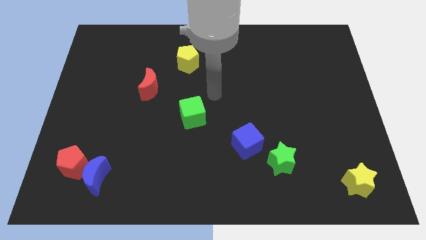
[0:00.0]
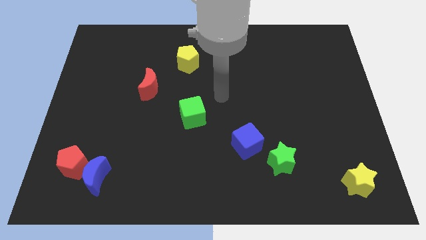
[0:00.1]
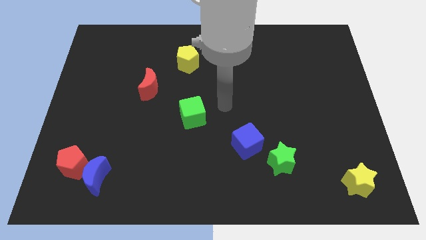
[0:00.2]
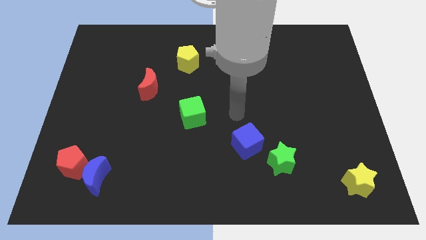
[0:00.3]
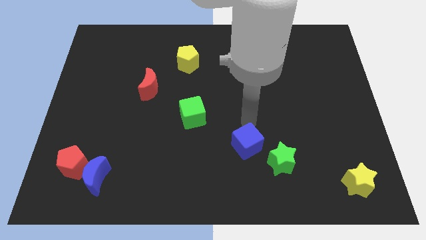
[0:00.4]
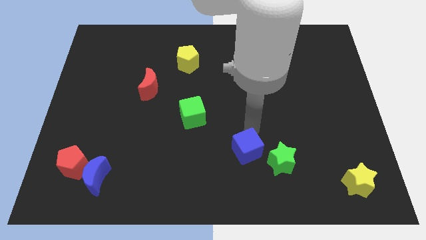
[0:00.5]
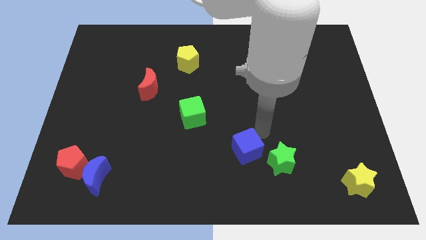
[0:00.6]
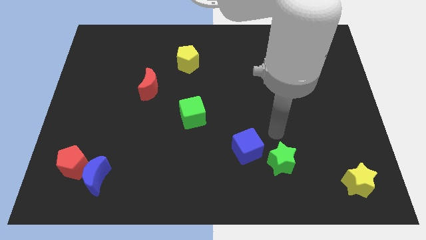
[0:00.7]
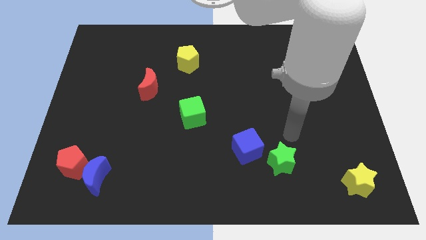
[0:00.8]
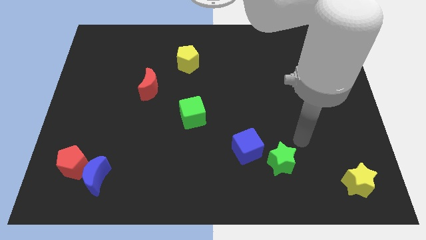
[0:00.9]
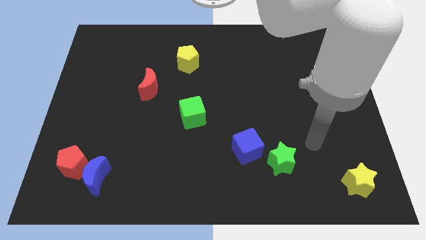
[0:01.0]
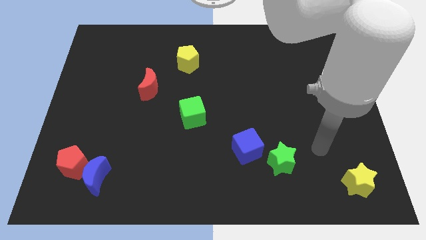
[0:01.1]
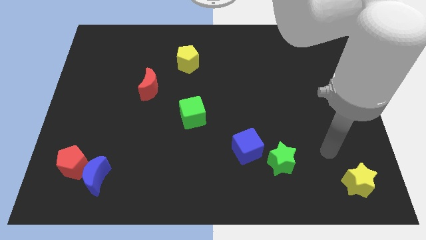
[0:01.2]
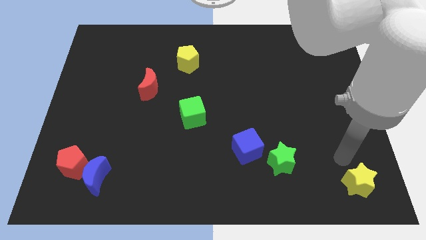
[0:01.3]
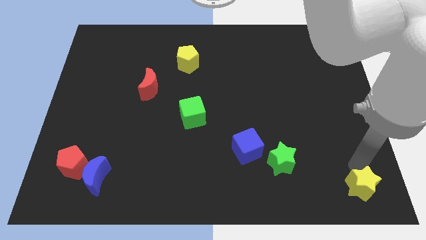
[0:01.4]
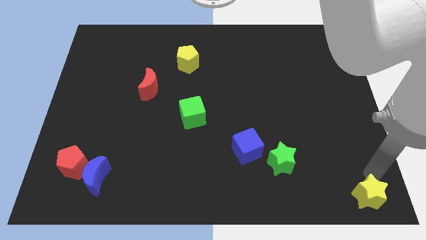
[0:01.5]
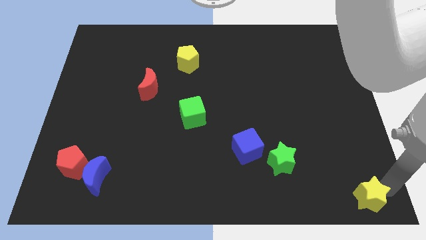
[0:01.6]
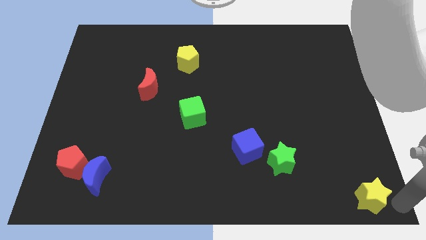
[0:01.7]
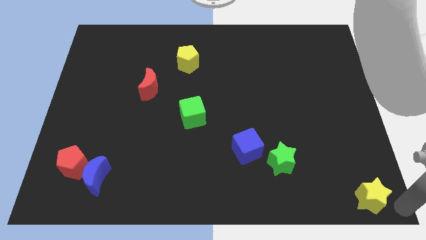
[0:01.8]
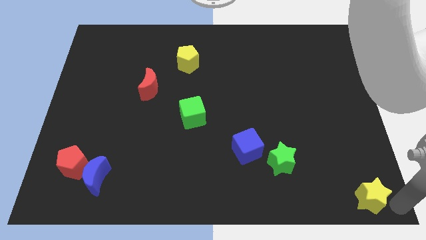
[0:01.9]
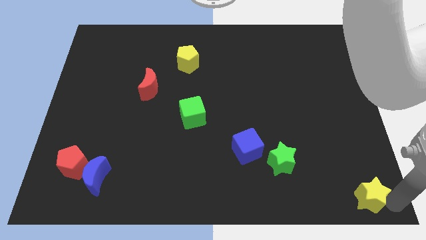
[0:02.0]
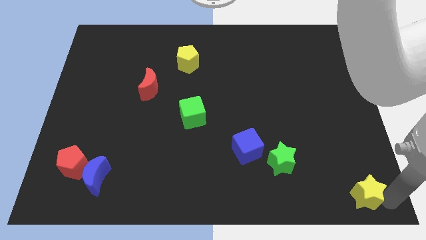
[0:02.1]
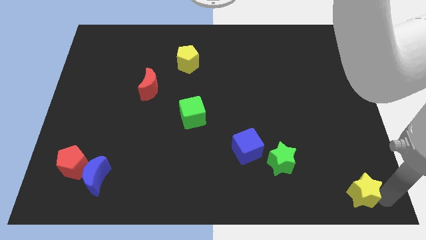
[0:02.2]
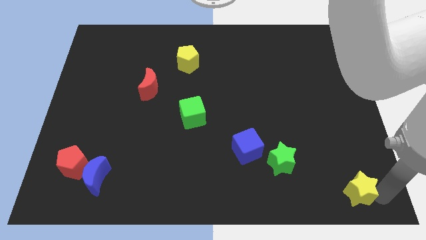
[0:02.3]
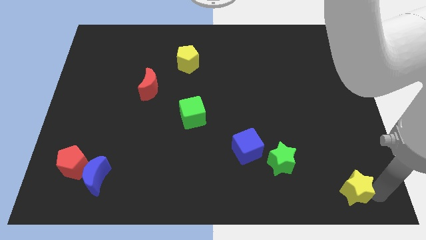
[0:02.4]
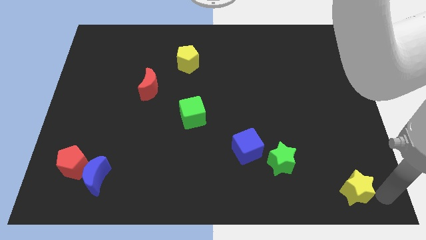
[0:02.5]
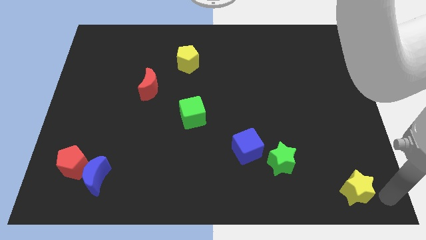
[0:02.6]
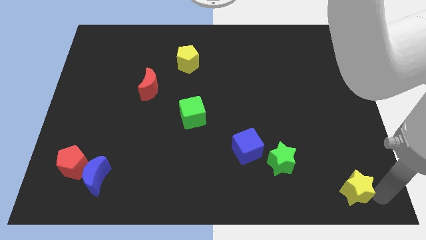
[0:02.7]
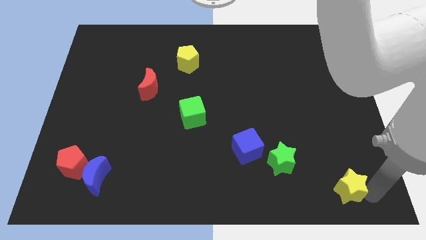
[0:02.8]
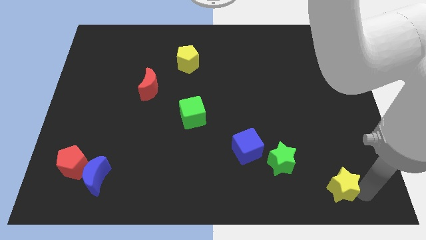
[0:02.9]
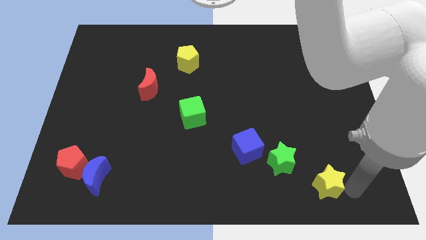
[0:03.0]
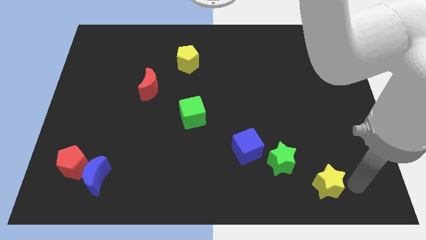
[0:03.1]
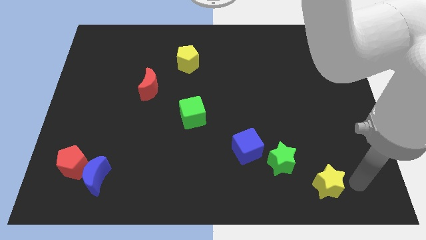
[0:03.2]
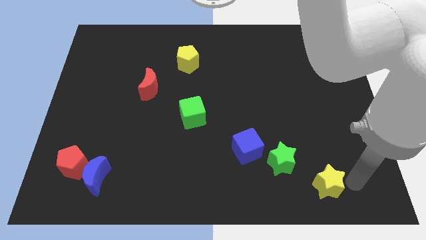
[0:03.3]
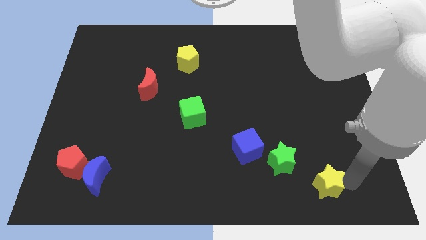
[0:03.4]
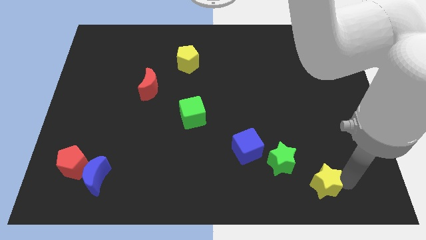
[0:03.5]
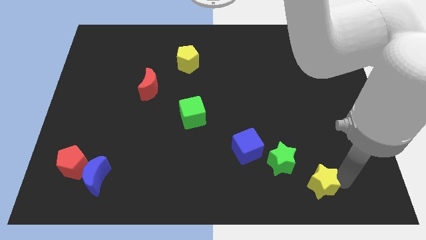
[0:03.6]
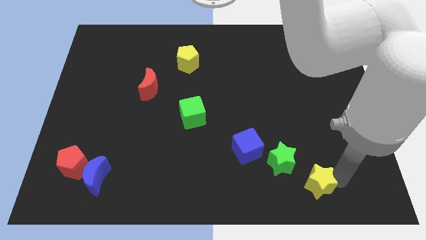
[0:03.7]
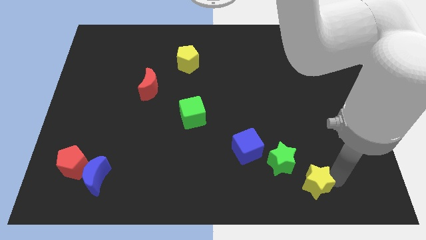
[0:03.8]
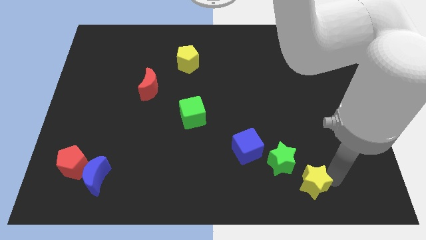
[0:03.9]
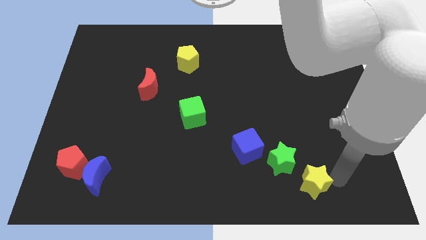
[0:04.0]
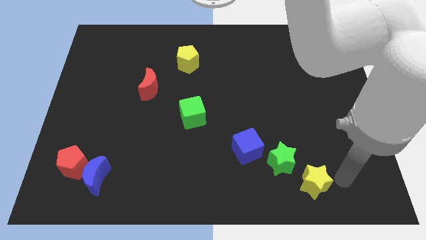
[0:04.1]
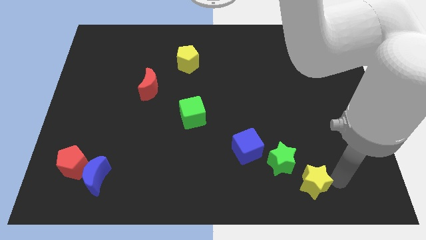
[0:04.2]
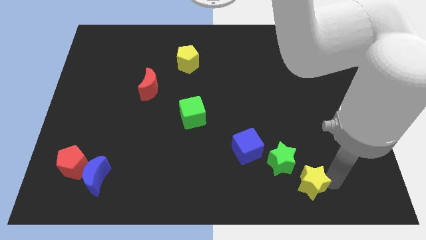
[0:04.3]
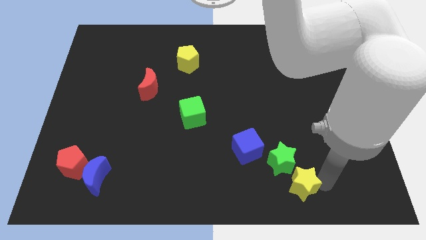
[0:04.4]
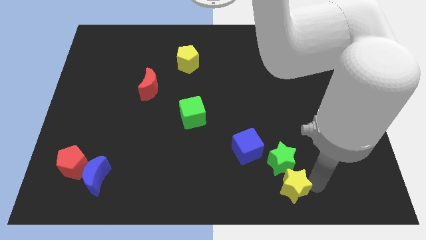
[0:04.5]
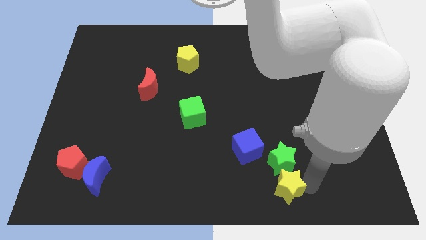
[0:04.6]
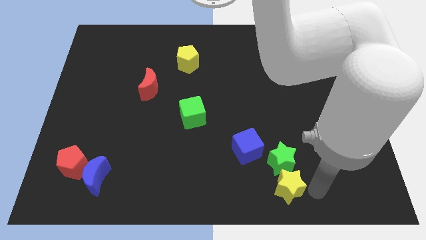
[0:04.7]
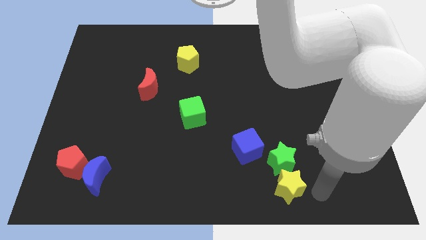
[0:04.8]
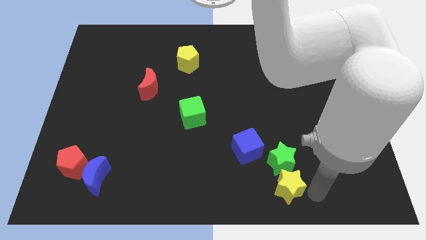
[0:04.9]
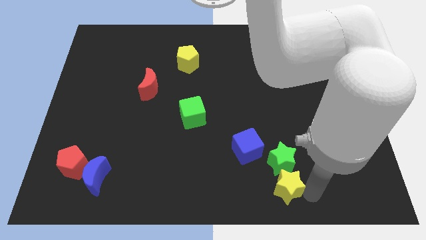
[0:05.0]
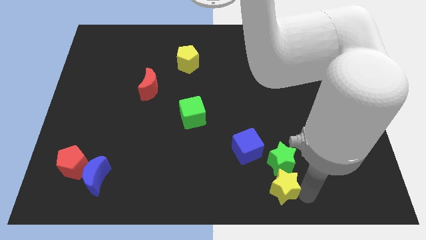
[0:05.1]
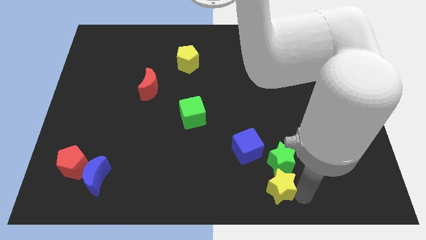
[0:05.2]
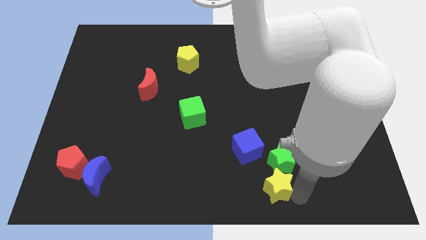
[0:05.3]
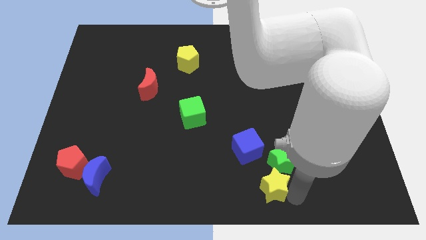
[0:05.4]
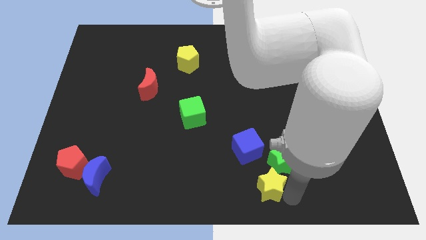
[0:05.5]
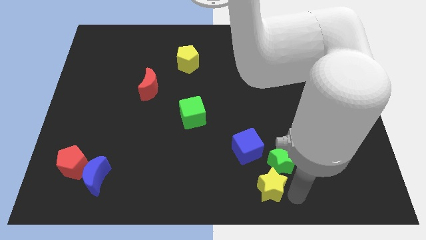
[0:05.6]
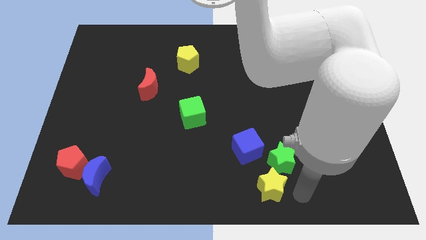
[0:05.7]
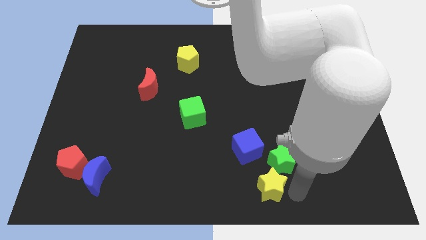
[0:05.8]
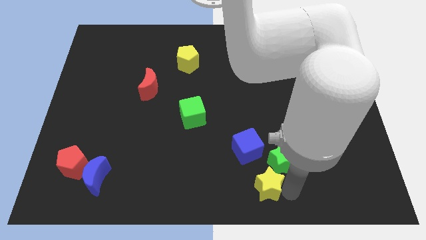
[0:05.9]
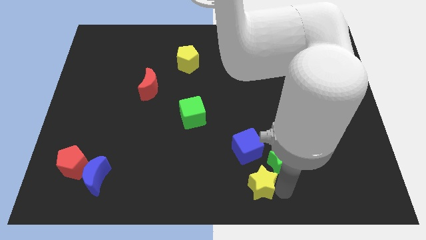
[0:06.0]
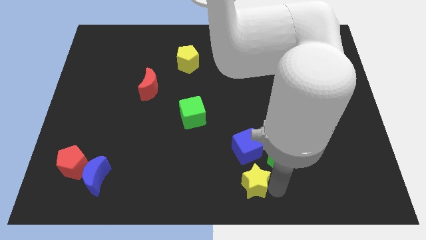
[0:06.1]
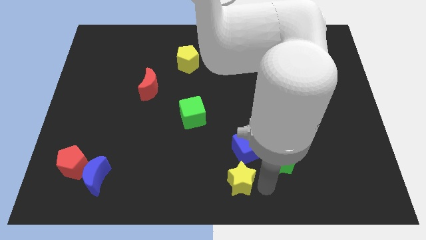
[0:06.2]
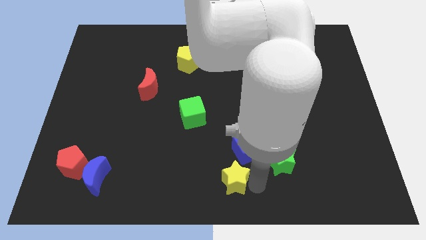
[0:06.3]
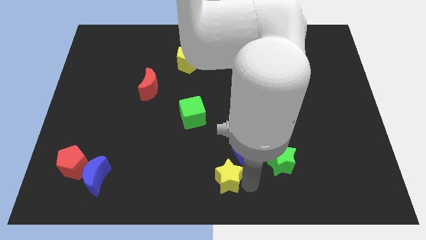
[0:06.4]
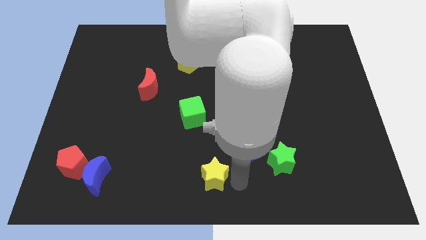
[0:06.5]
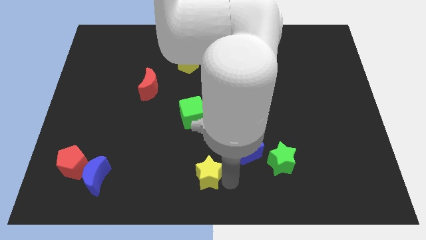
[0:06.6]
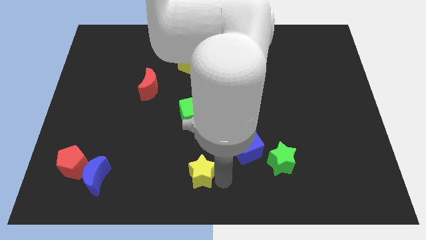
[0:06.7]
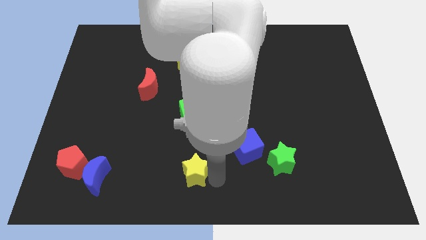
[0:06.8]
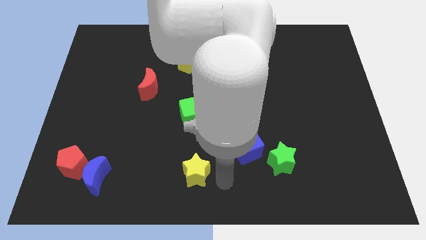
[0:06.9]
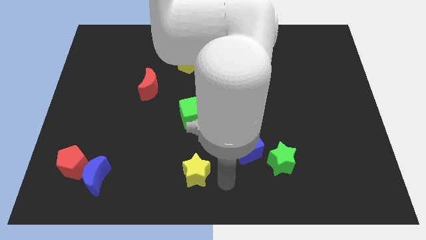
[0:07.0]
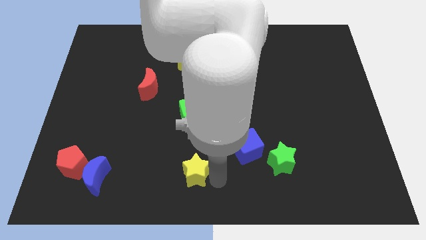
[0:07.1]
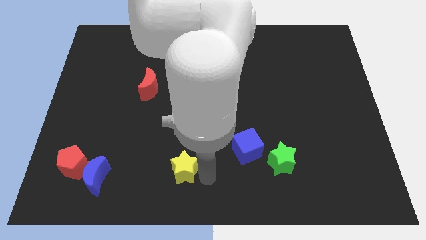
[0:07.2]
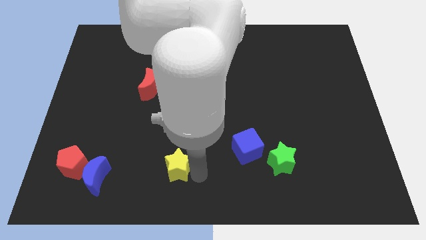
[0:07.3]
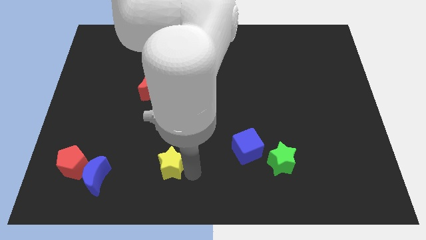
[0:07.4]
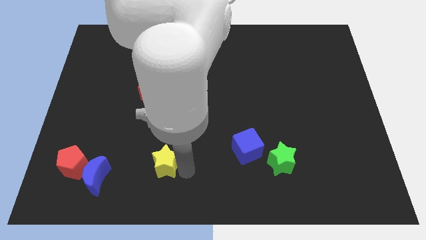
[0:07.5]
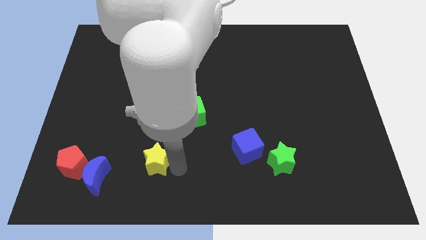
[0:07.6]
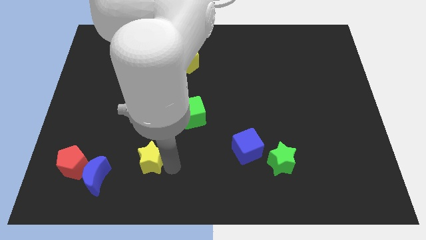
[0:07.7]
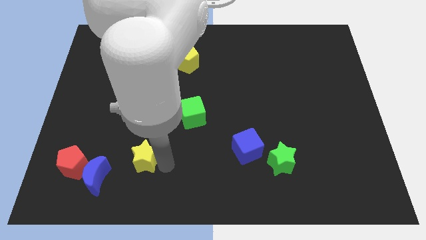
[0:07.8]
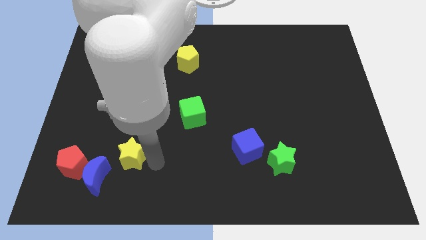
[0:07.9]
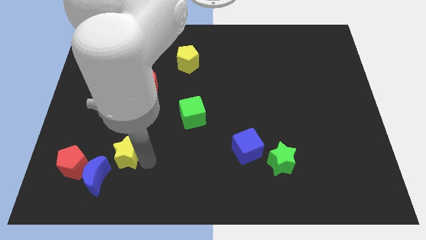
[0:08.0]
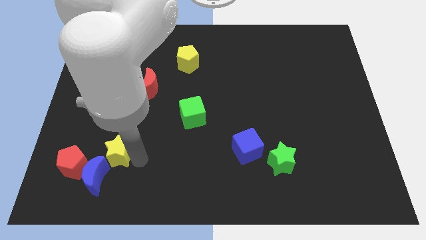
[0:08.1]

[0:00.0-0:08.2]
push the yellow star to the top right side of the red pentagon

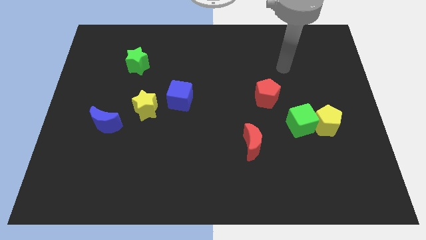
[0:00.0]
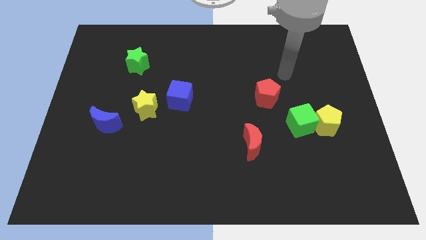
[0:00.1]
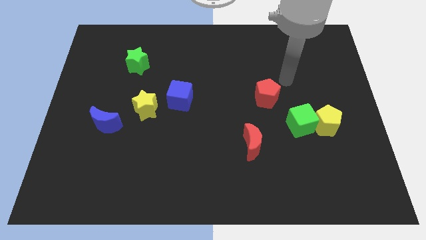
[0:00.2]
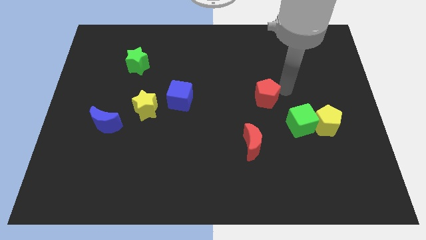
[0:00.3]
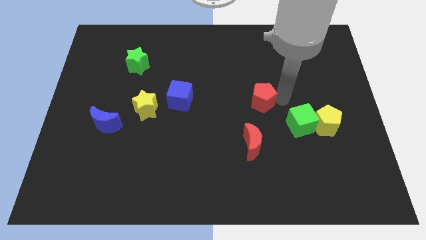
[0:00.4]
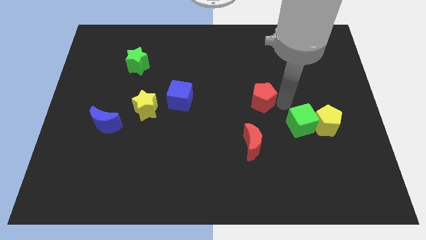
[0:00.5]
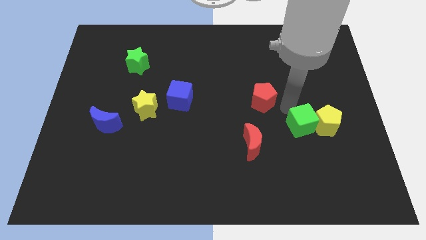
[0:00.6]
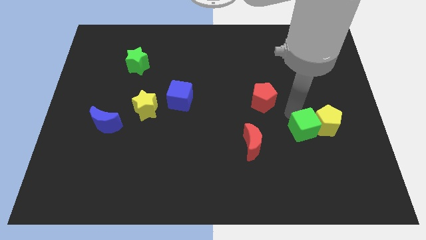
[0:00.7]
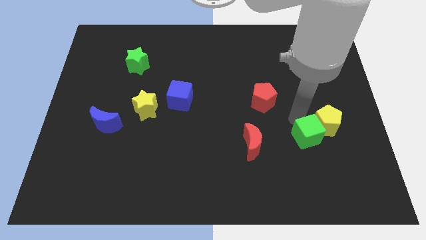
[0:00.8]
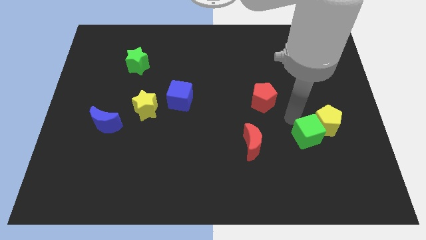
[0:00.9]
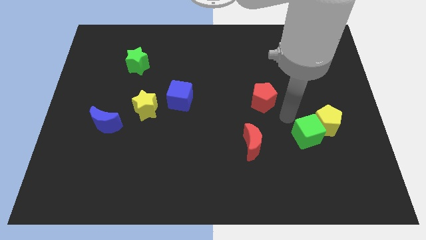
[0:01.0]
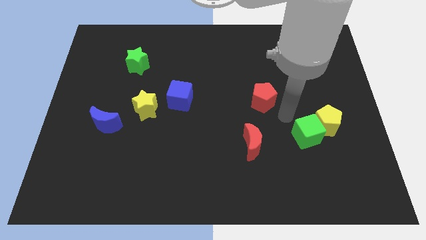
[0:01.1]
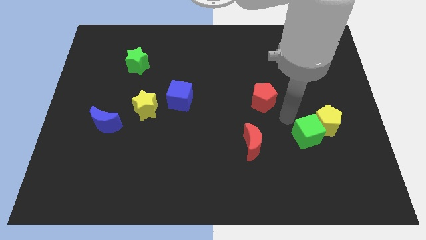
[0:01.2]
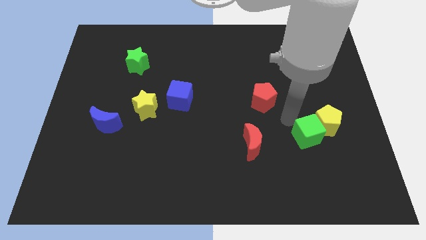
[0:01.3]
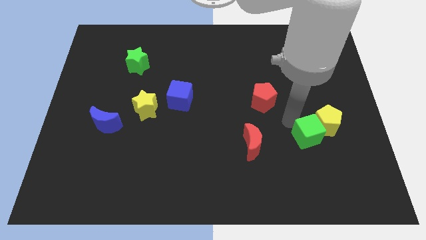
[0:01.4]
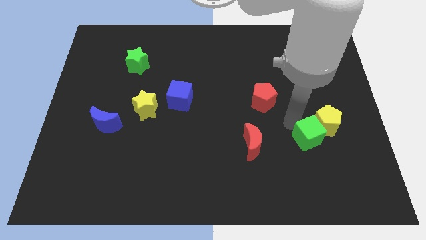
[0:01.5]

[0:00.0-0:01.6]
slide the green cube to the bottom side of the yellow pentagon
